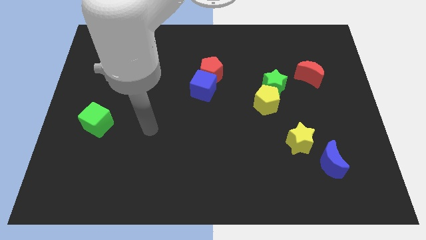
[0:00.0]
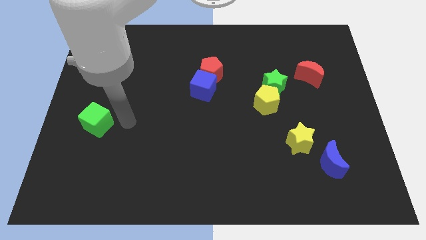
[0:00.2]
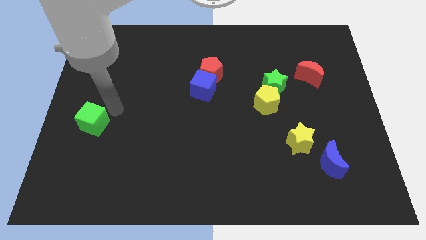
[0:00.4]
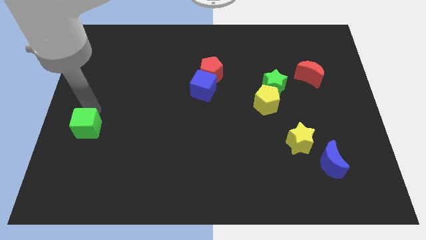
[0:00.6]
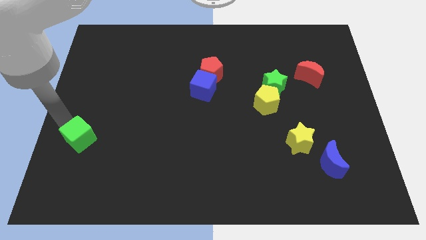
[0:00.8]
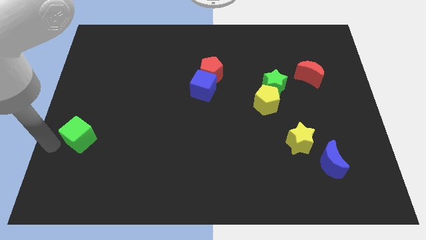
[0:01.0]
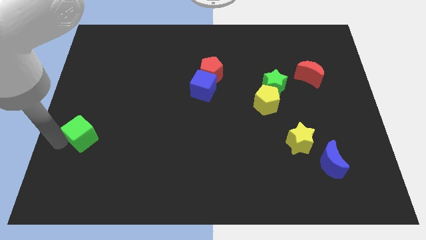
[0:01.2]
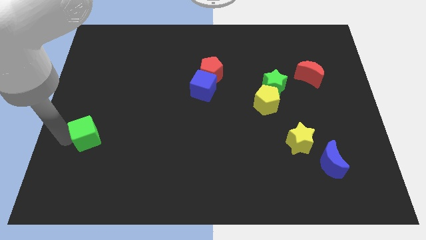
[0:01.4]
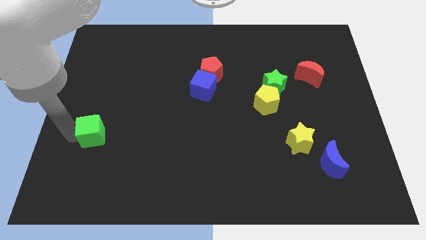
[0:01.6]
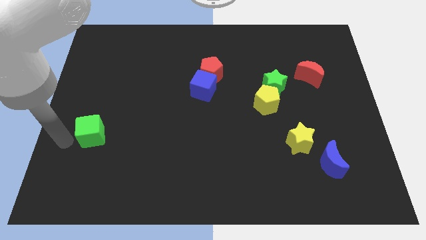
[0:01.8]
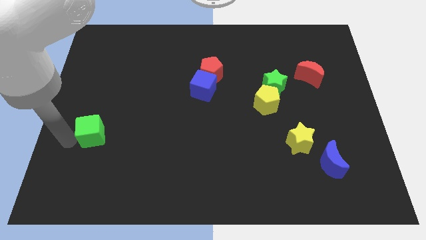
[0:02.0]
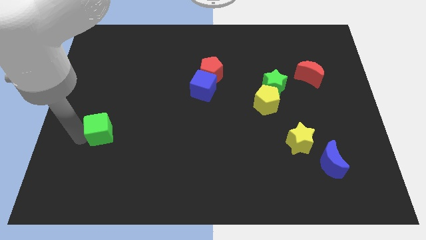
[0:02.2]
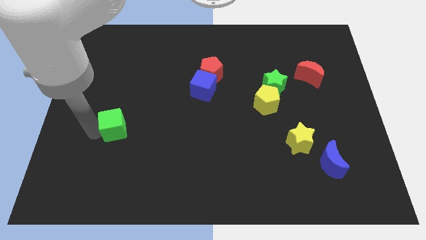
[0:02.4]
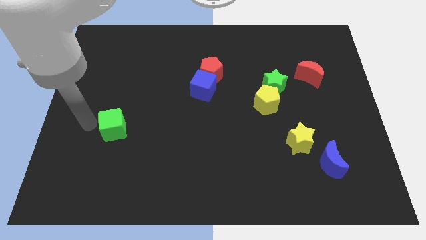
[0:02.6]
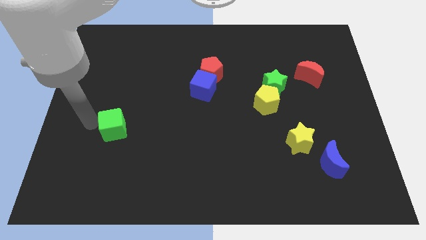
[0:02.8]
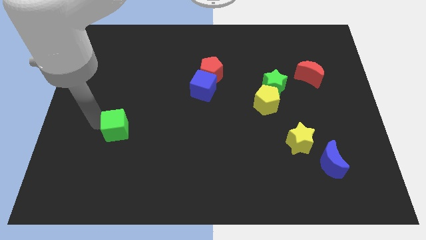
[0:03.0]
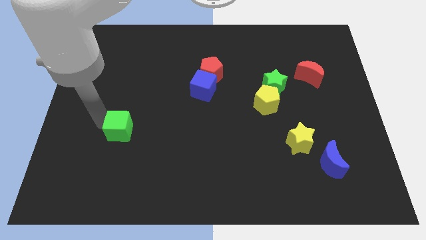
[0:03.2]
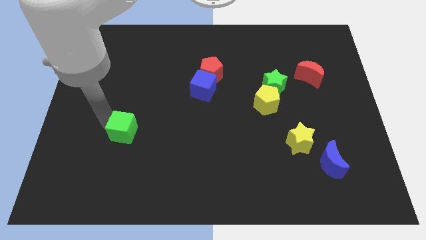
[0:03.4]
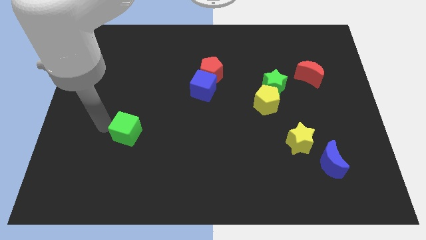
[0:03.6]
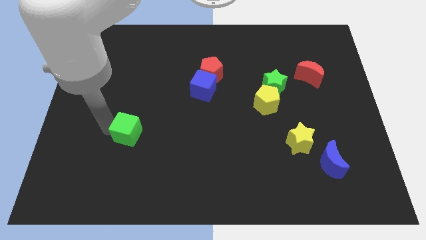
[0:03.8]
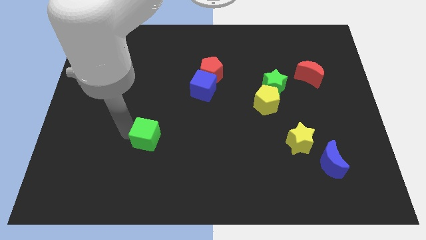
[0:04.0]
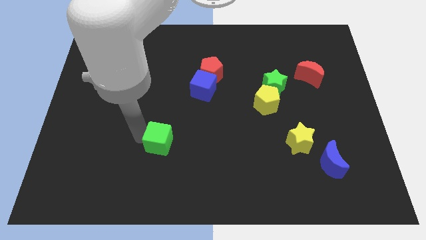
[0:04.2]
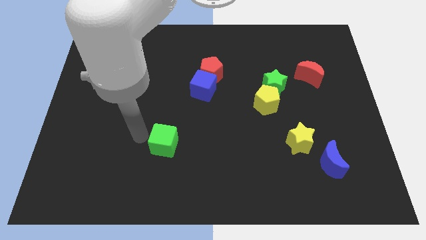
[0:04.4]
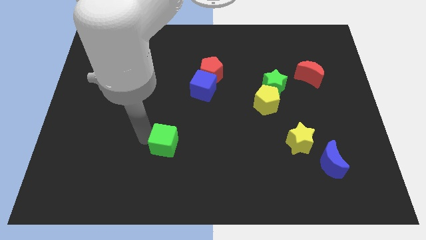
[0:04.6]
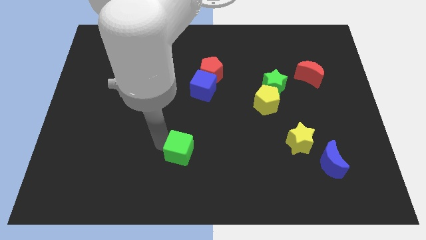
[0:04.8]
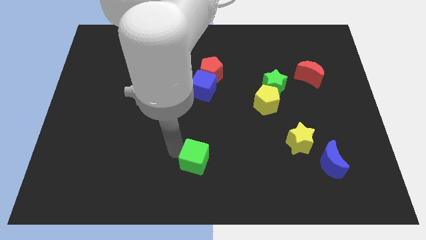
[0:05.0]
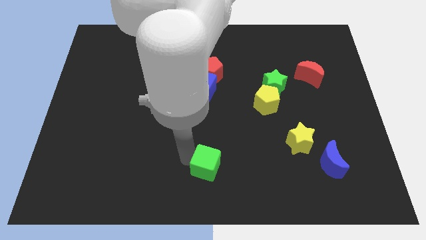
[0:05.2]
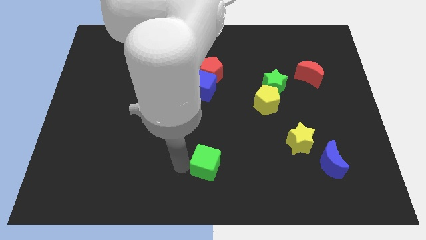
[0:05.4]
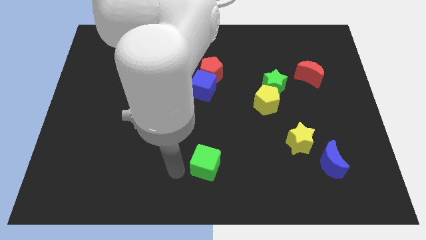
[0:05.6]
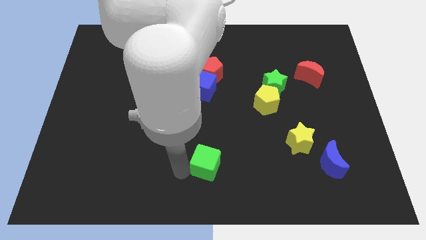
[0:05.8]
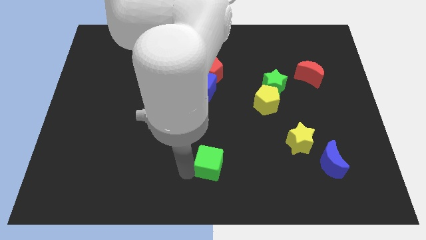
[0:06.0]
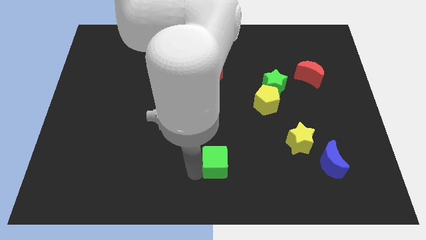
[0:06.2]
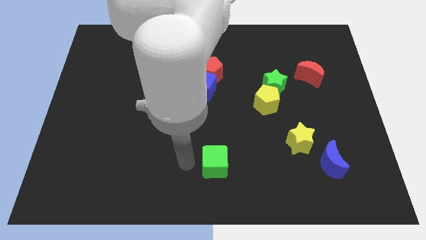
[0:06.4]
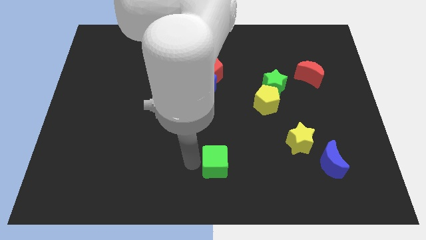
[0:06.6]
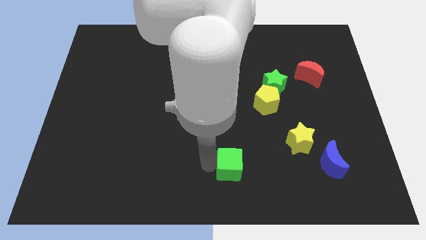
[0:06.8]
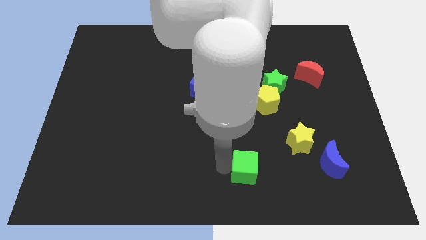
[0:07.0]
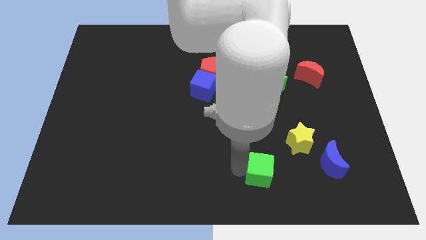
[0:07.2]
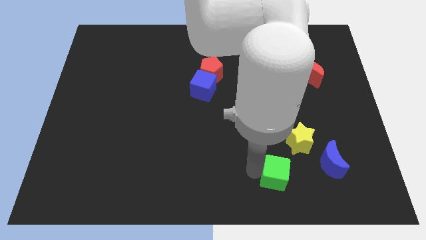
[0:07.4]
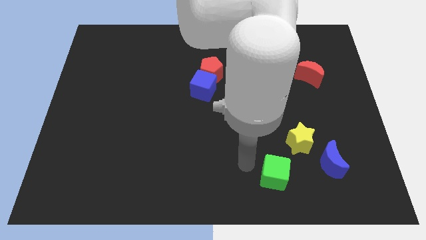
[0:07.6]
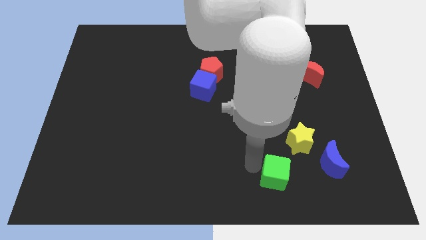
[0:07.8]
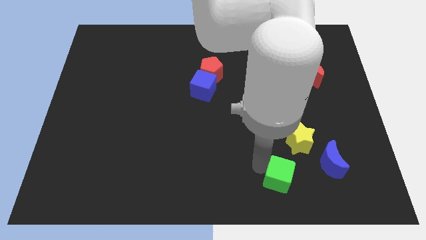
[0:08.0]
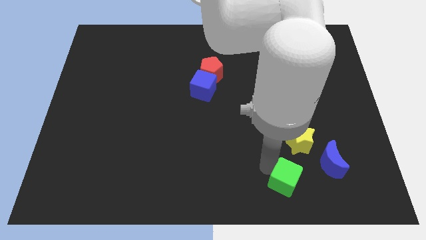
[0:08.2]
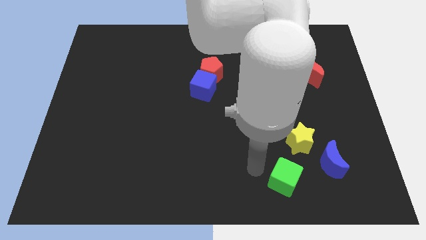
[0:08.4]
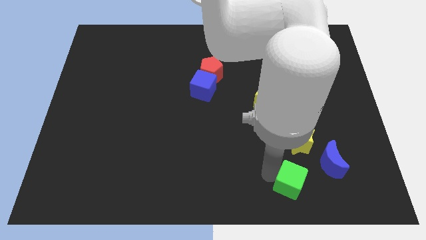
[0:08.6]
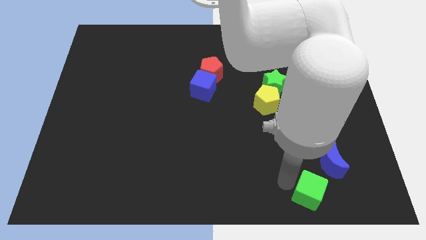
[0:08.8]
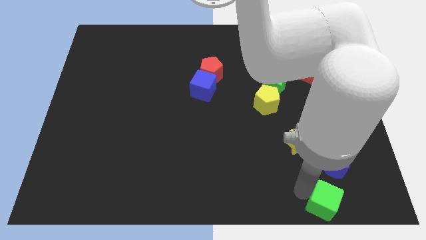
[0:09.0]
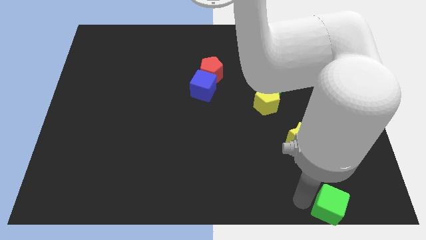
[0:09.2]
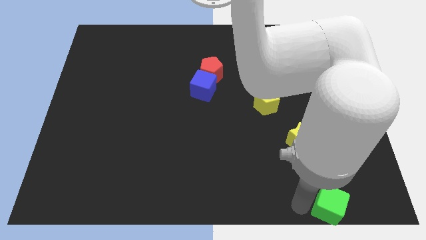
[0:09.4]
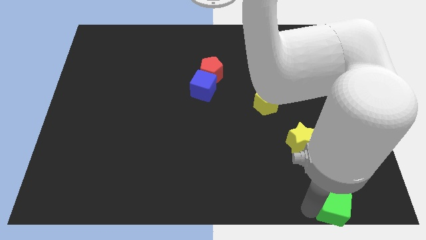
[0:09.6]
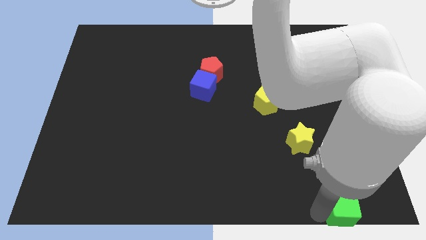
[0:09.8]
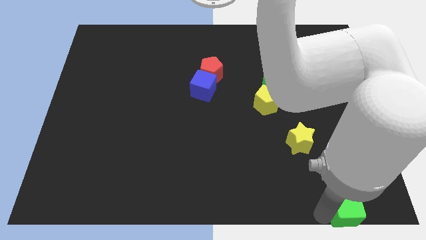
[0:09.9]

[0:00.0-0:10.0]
slide the green cube to the bottom right of the board
